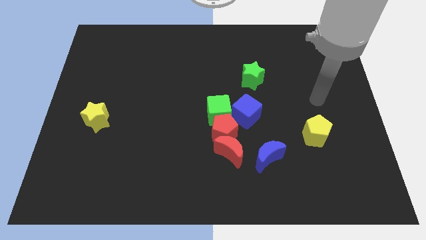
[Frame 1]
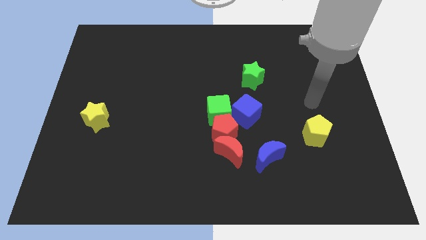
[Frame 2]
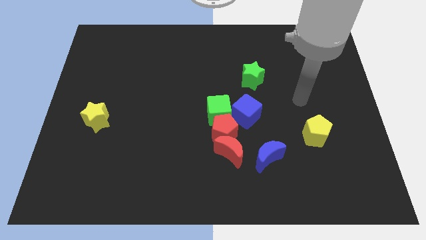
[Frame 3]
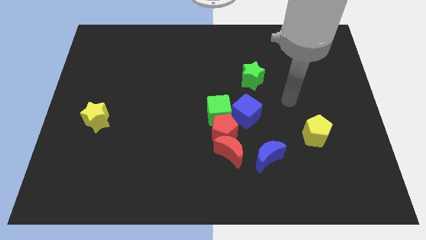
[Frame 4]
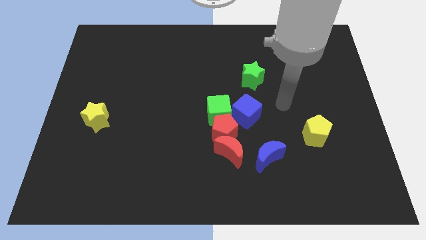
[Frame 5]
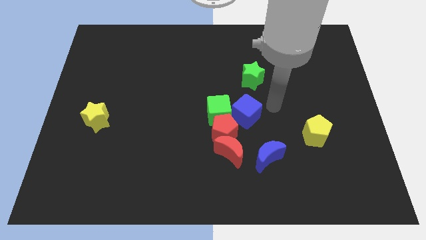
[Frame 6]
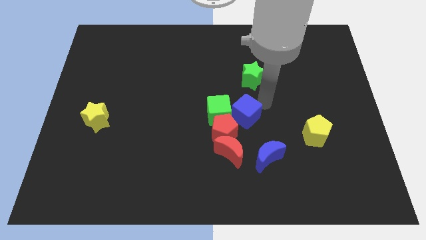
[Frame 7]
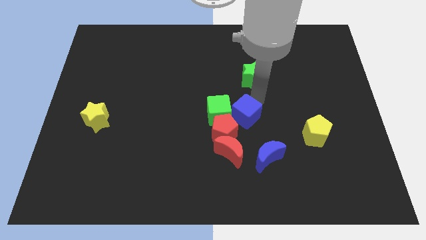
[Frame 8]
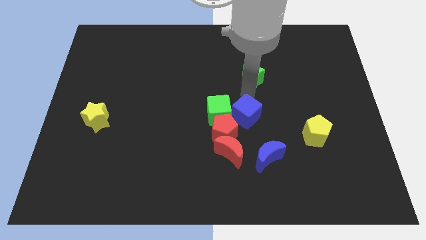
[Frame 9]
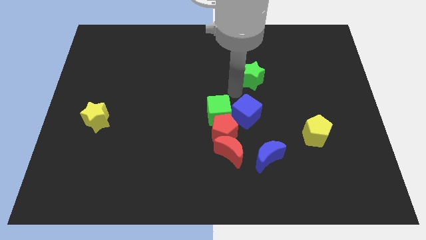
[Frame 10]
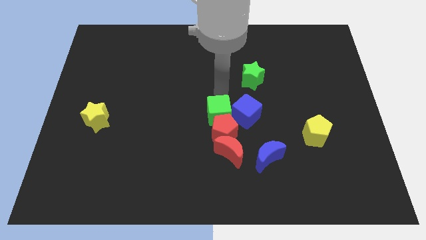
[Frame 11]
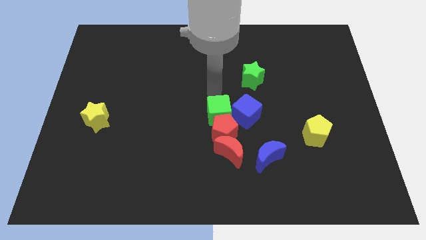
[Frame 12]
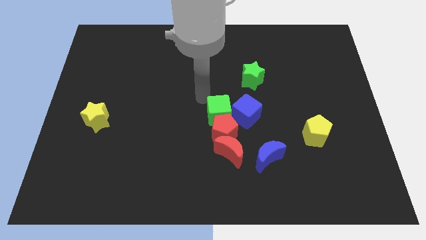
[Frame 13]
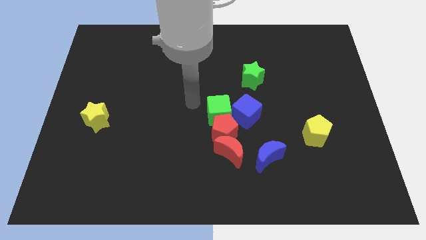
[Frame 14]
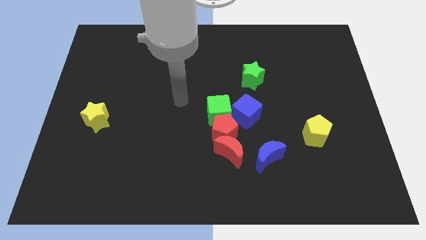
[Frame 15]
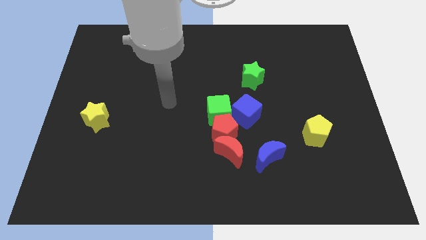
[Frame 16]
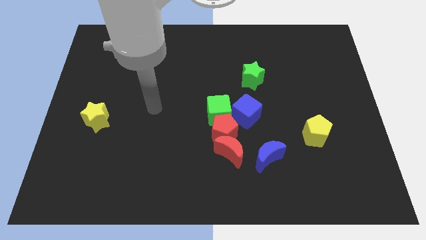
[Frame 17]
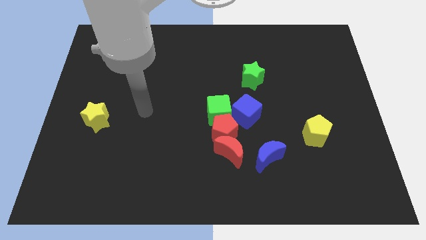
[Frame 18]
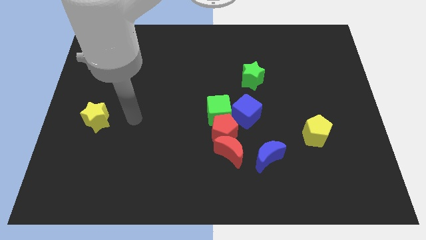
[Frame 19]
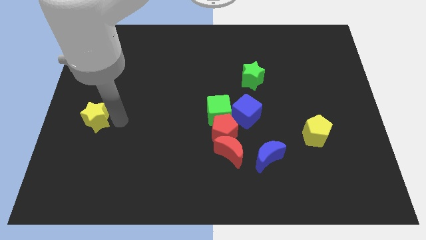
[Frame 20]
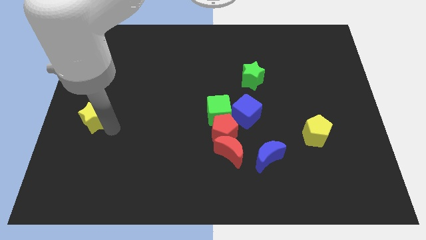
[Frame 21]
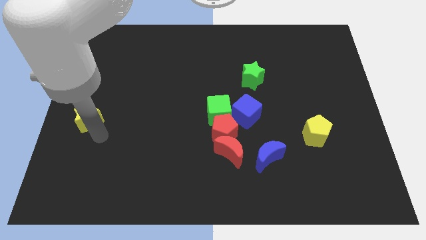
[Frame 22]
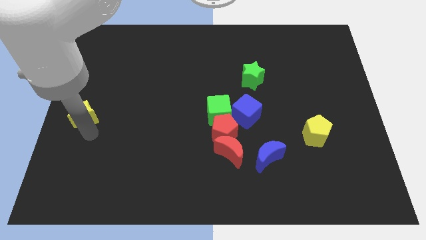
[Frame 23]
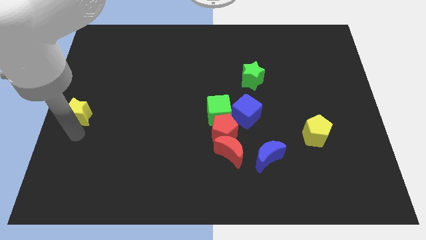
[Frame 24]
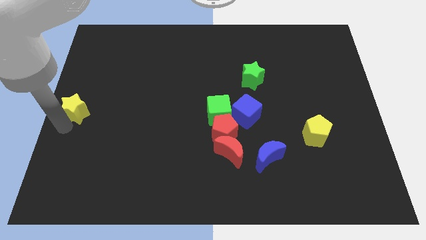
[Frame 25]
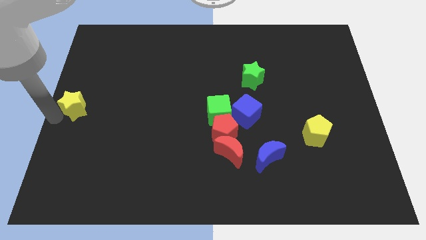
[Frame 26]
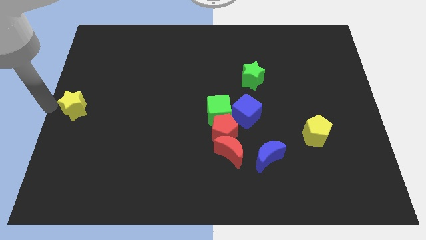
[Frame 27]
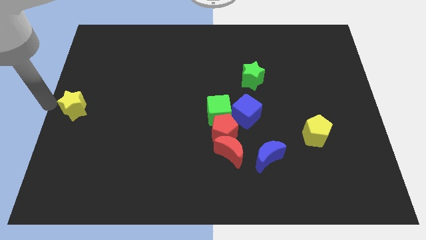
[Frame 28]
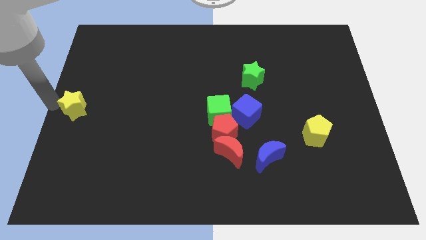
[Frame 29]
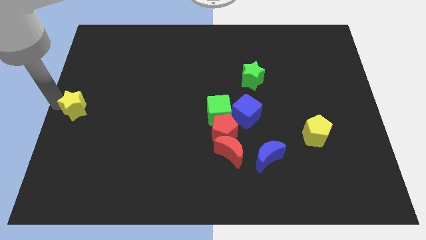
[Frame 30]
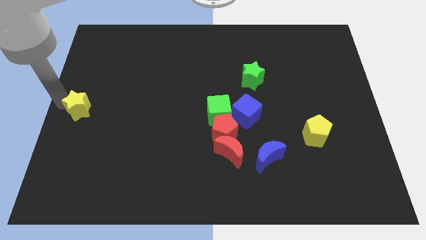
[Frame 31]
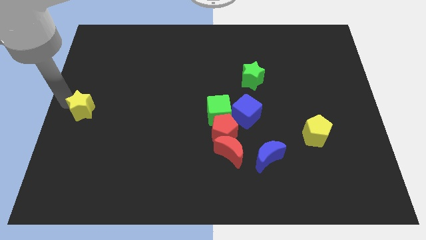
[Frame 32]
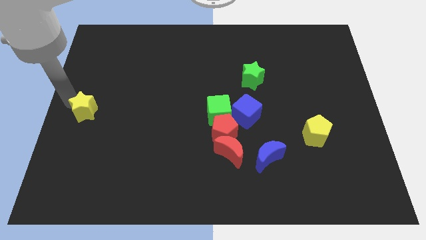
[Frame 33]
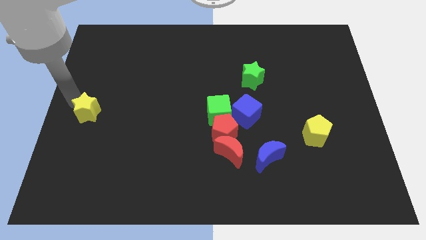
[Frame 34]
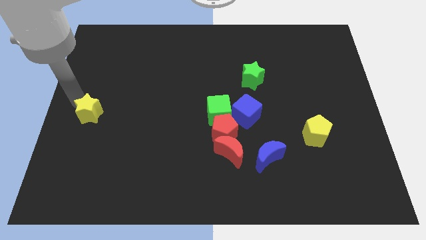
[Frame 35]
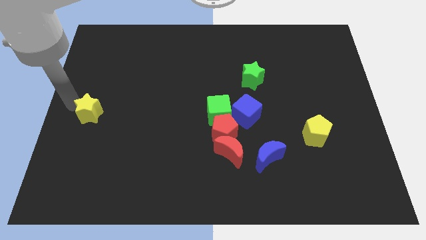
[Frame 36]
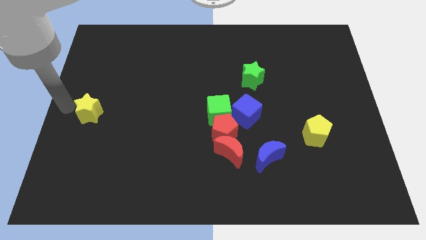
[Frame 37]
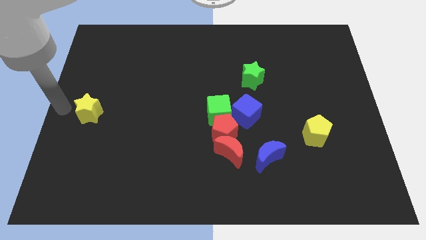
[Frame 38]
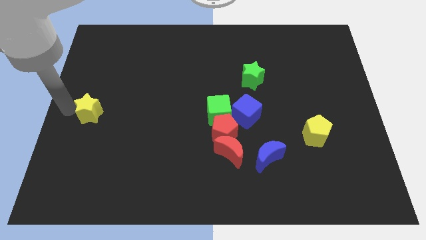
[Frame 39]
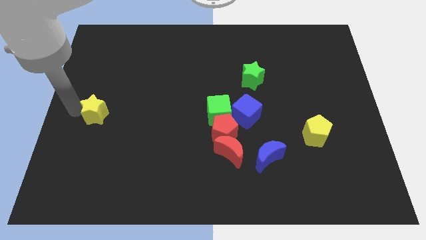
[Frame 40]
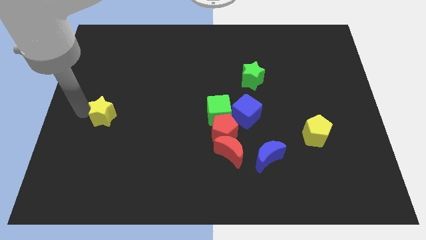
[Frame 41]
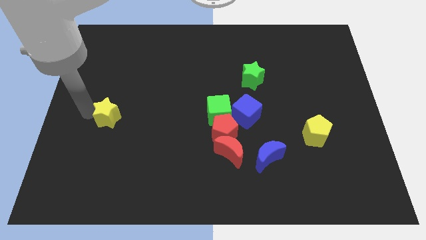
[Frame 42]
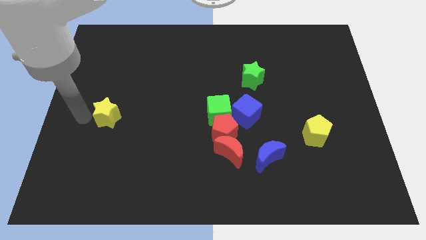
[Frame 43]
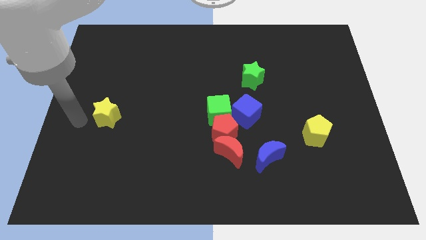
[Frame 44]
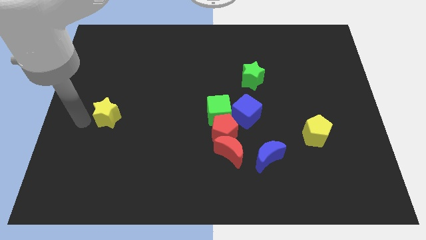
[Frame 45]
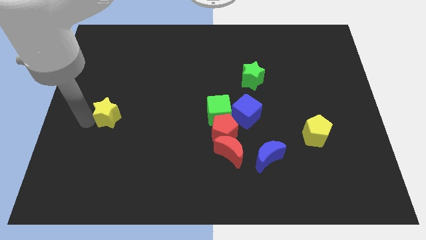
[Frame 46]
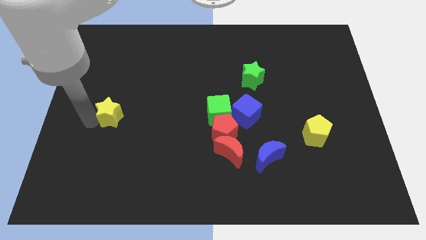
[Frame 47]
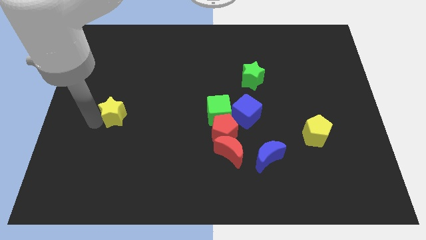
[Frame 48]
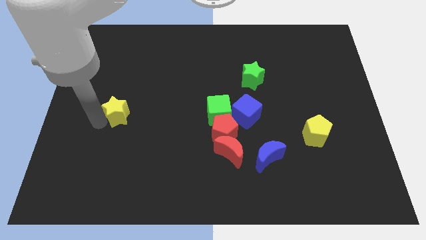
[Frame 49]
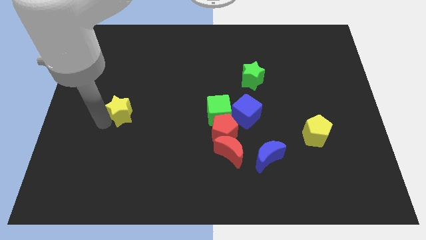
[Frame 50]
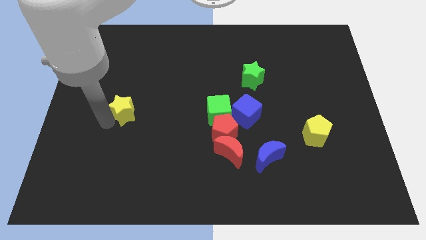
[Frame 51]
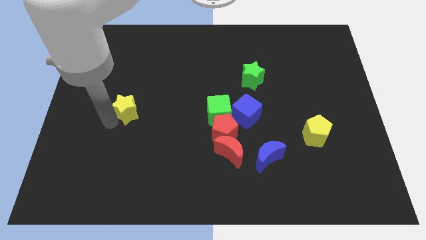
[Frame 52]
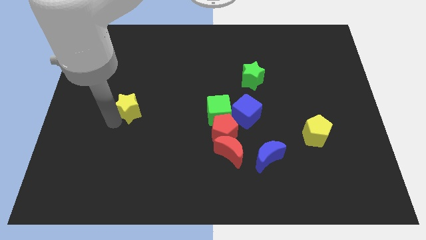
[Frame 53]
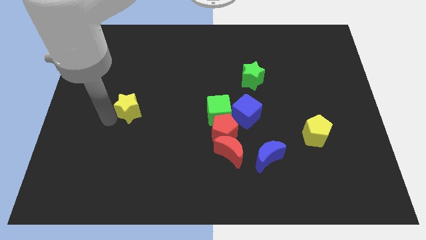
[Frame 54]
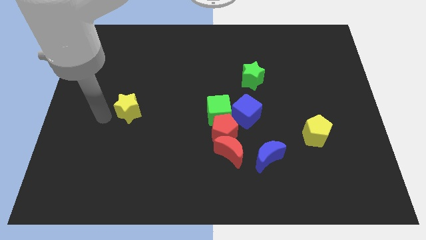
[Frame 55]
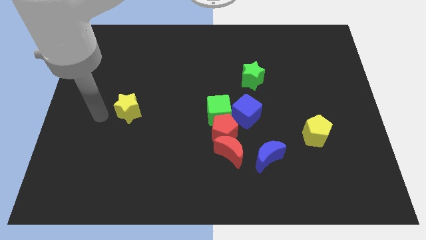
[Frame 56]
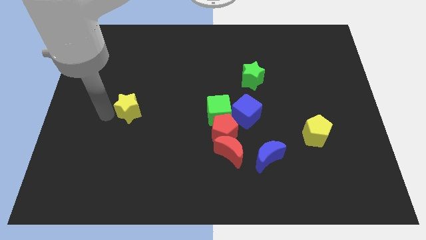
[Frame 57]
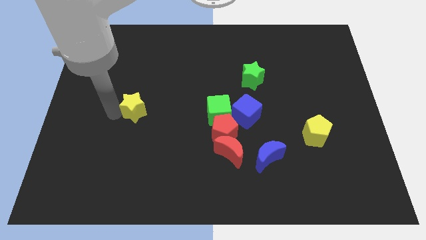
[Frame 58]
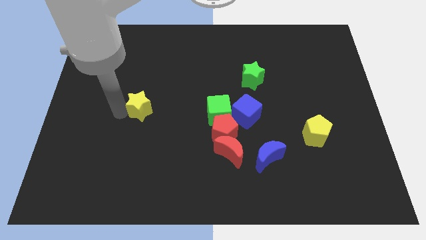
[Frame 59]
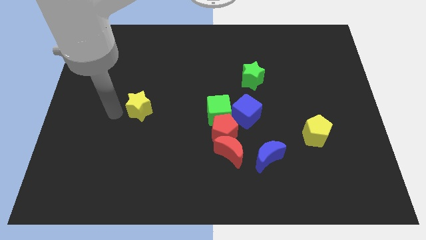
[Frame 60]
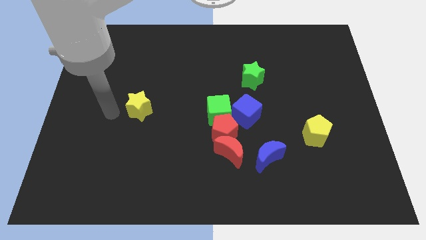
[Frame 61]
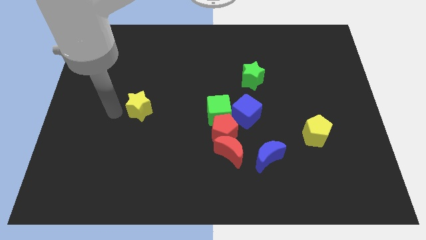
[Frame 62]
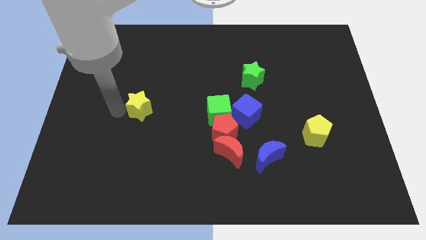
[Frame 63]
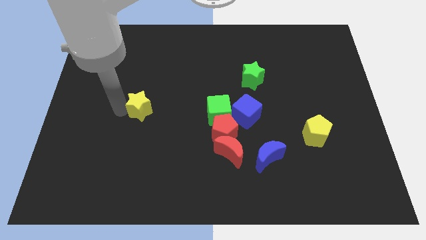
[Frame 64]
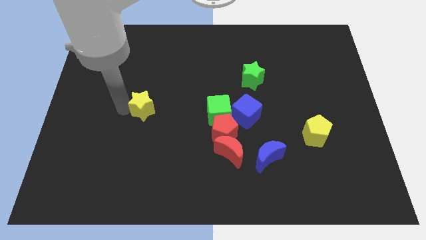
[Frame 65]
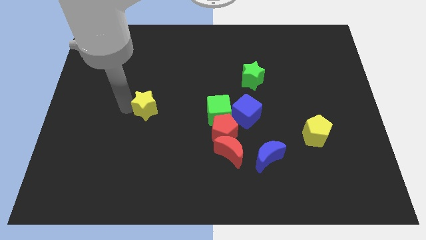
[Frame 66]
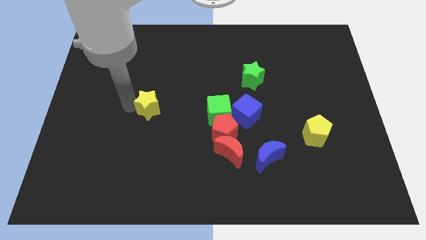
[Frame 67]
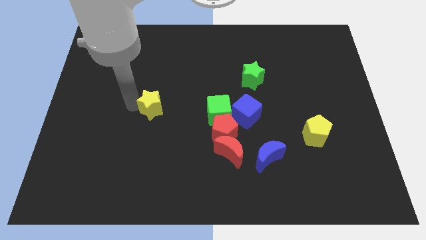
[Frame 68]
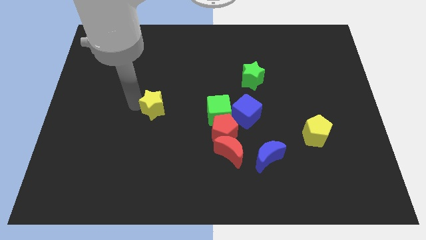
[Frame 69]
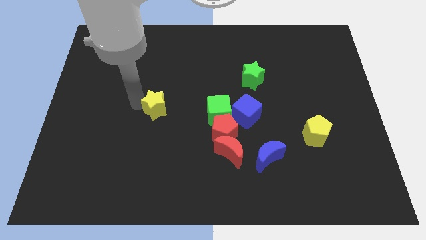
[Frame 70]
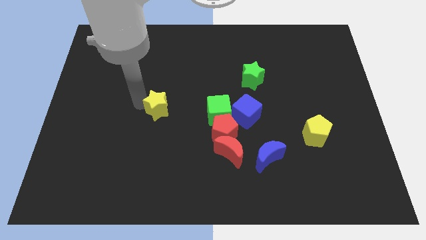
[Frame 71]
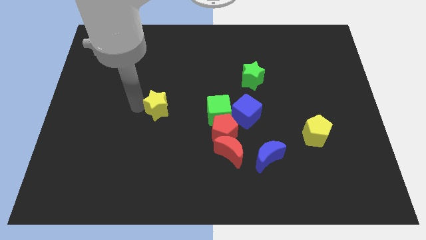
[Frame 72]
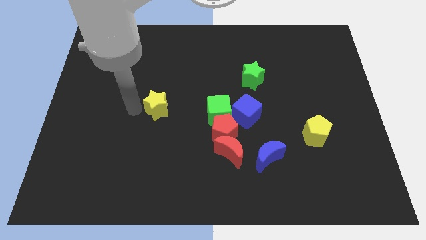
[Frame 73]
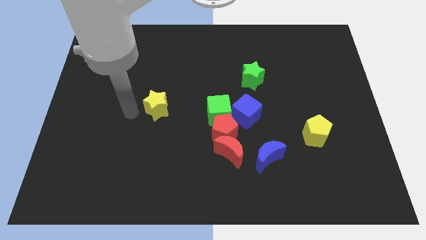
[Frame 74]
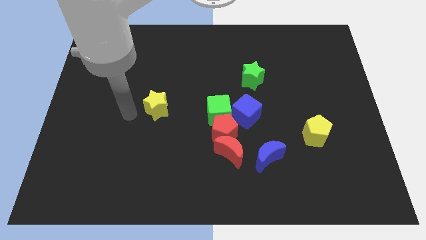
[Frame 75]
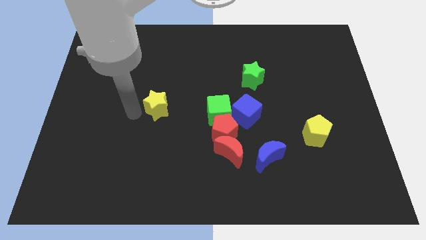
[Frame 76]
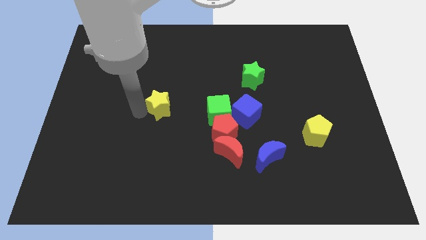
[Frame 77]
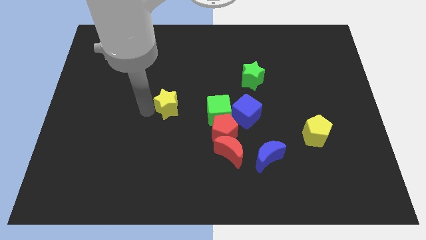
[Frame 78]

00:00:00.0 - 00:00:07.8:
move the yellow star to the center of the board
